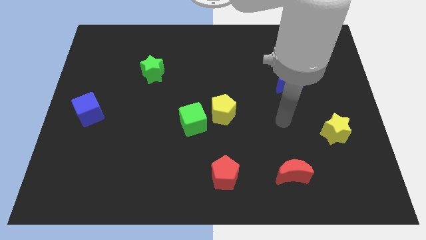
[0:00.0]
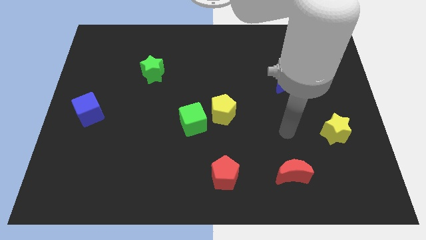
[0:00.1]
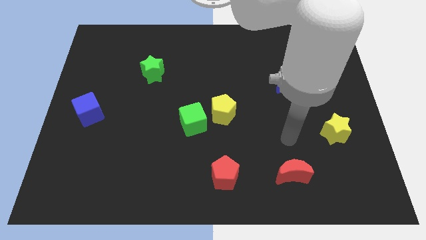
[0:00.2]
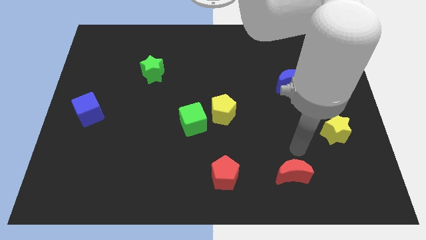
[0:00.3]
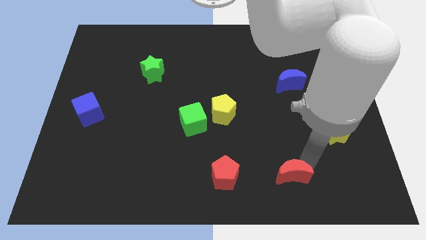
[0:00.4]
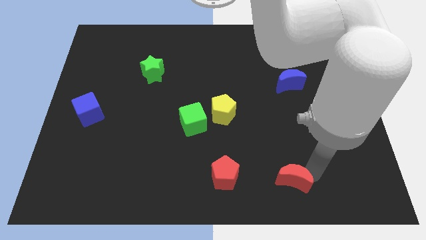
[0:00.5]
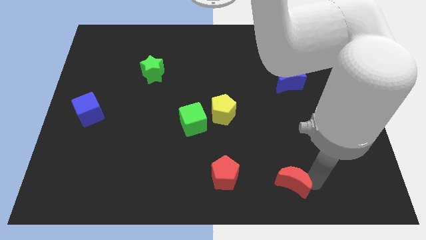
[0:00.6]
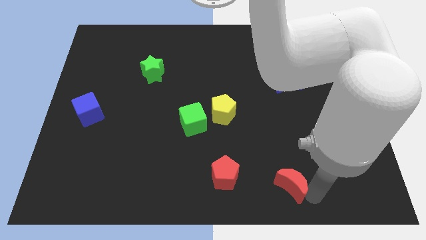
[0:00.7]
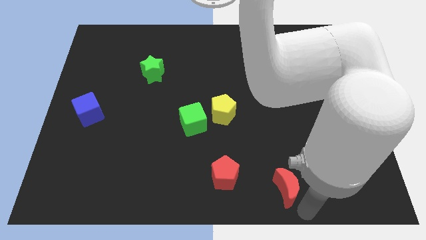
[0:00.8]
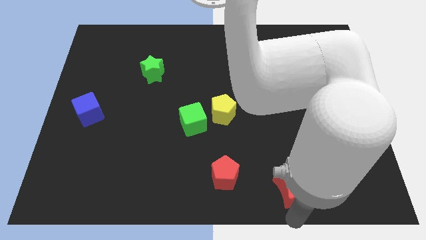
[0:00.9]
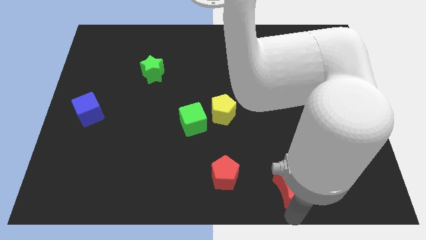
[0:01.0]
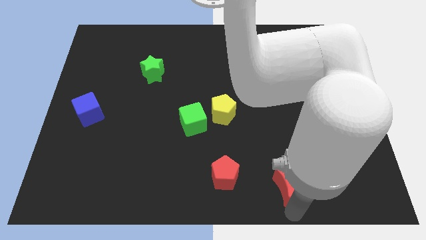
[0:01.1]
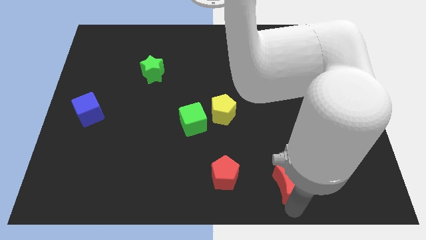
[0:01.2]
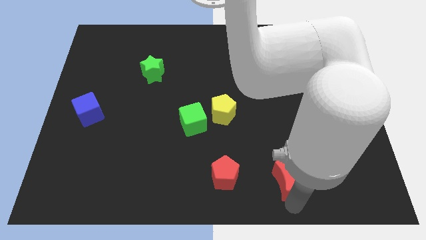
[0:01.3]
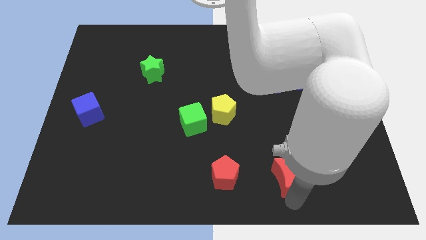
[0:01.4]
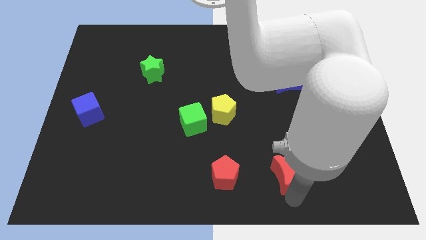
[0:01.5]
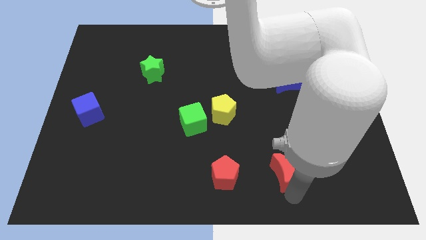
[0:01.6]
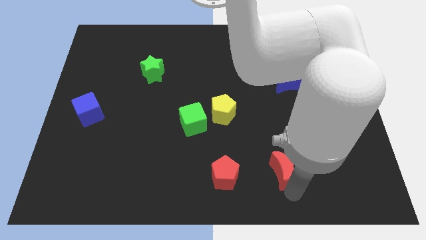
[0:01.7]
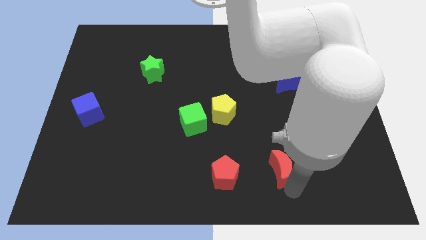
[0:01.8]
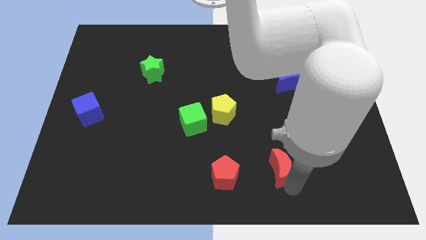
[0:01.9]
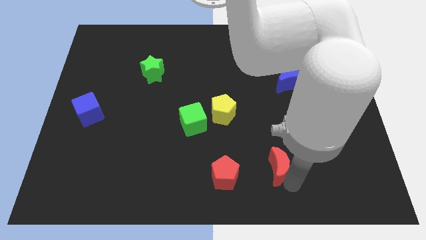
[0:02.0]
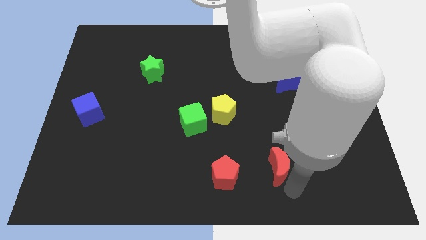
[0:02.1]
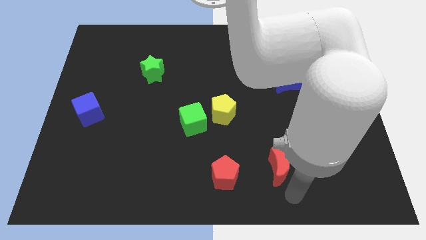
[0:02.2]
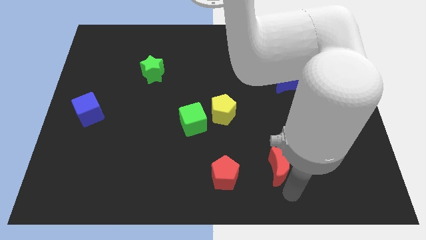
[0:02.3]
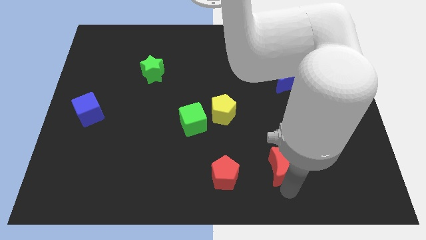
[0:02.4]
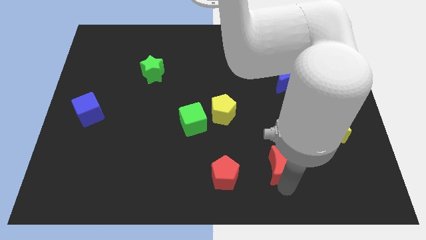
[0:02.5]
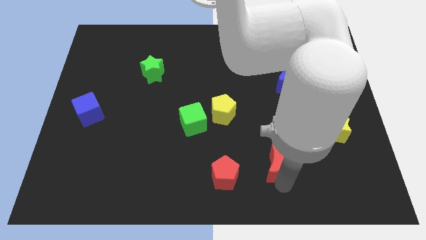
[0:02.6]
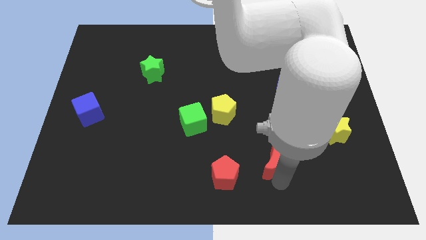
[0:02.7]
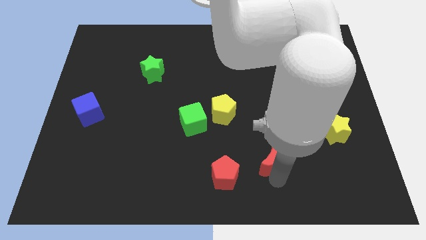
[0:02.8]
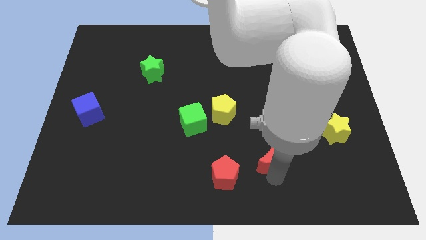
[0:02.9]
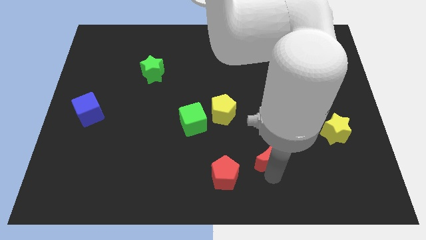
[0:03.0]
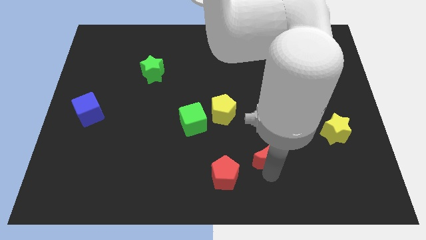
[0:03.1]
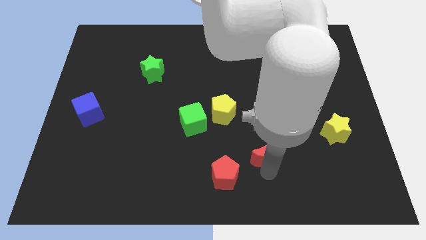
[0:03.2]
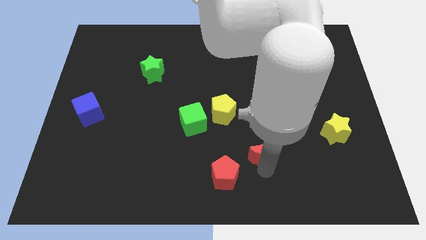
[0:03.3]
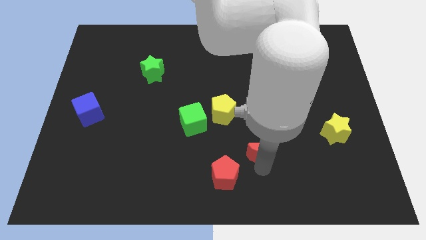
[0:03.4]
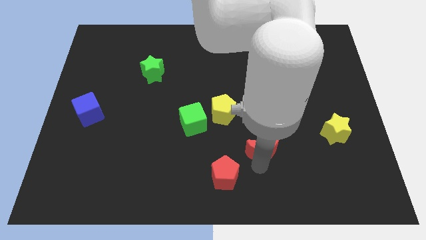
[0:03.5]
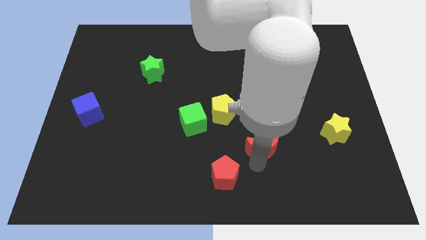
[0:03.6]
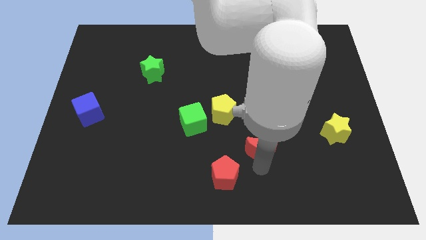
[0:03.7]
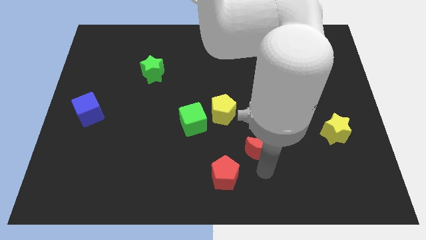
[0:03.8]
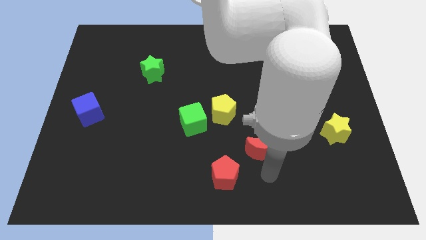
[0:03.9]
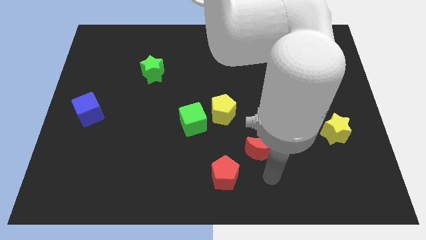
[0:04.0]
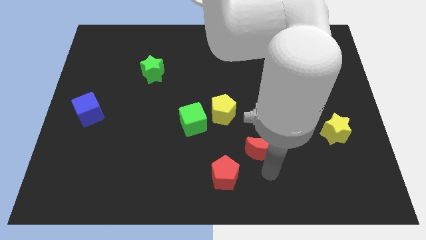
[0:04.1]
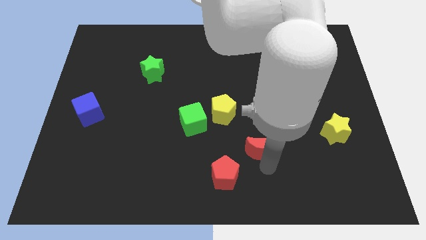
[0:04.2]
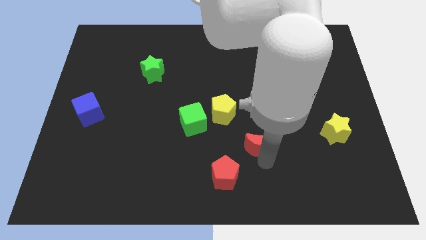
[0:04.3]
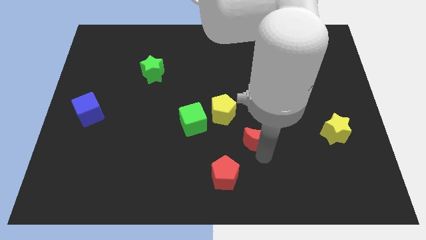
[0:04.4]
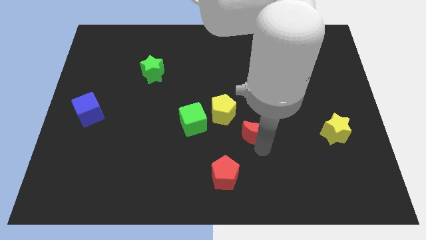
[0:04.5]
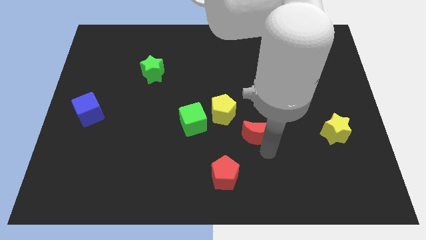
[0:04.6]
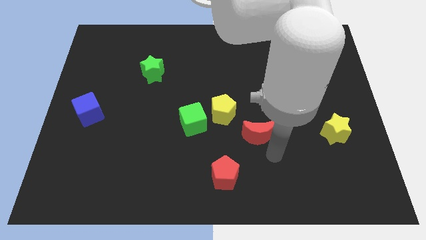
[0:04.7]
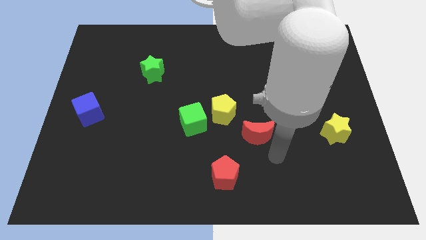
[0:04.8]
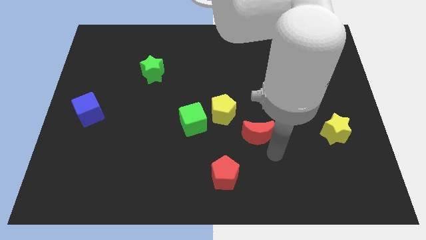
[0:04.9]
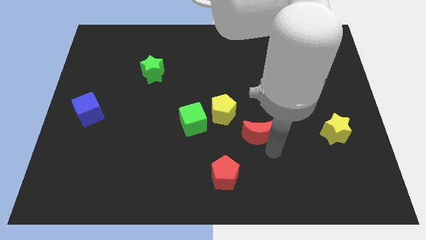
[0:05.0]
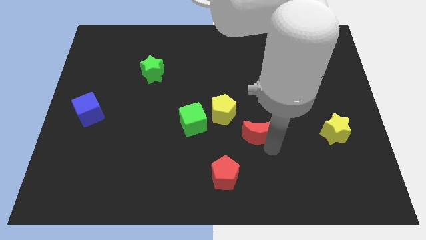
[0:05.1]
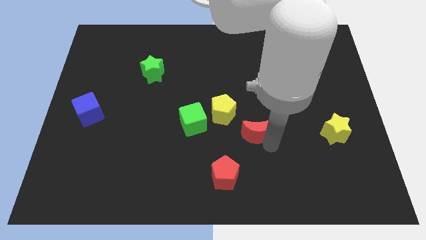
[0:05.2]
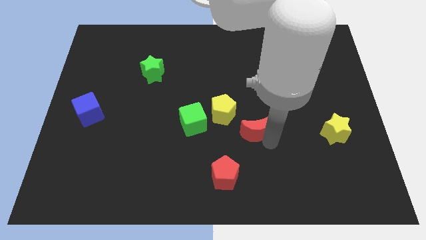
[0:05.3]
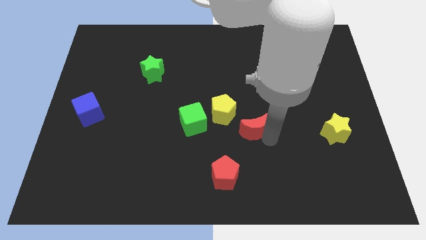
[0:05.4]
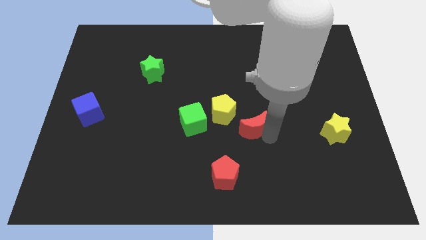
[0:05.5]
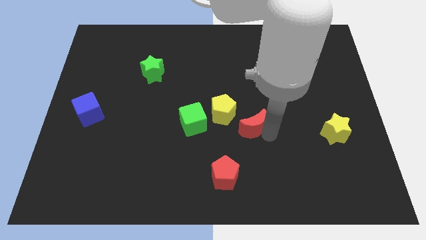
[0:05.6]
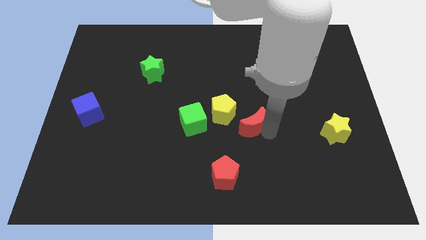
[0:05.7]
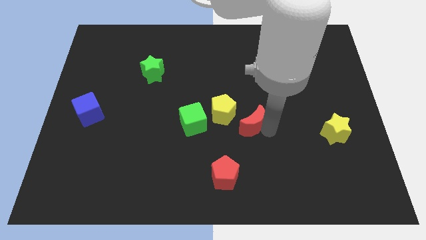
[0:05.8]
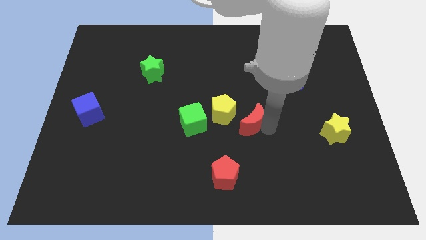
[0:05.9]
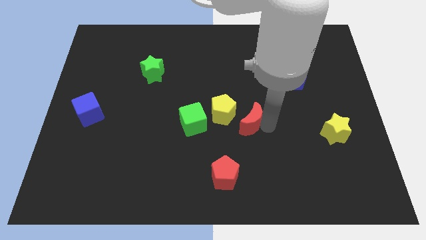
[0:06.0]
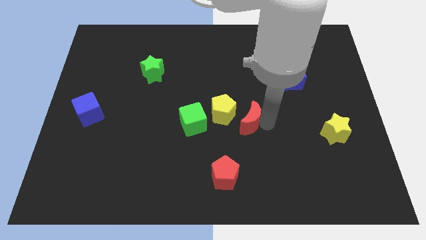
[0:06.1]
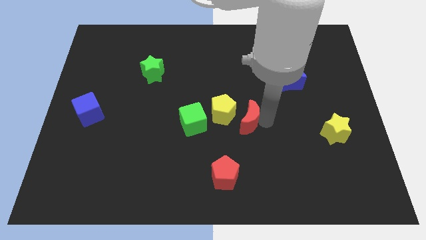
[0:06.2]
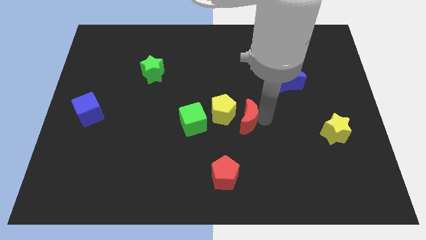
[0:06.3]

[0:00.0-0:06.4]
slide the red moon to the yellow pentagon
